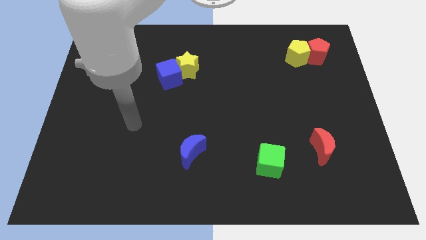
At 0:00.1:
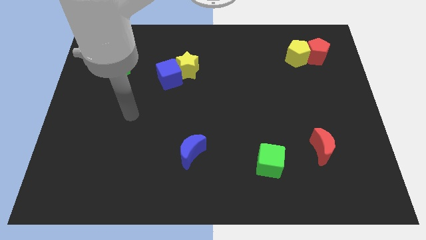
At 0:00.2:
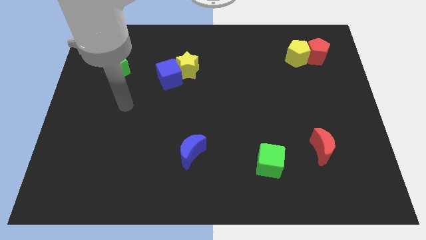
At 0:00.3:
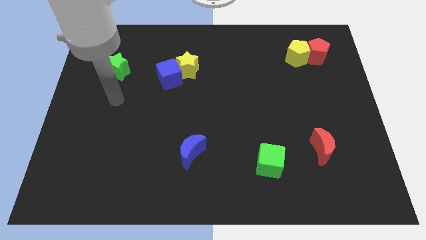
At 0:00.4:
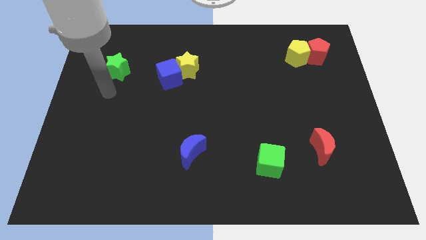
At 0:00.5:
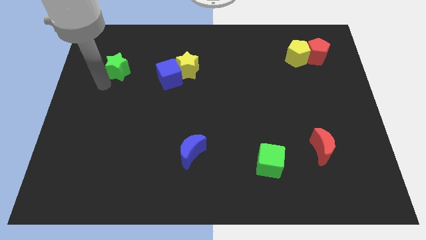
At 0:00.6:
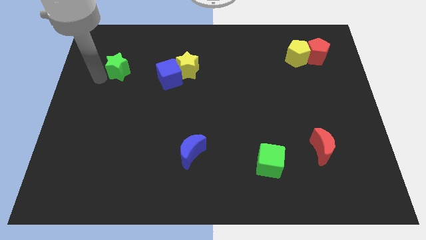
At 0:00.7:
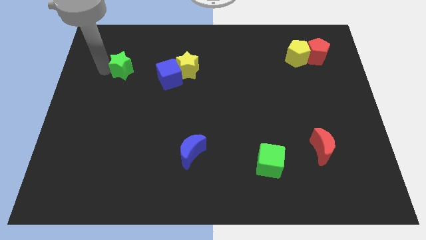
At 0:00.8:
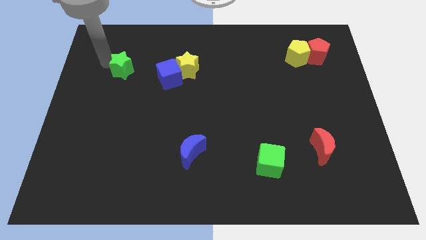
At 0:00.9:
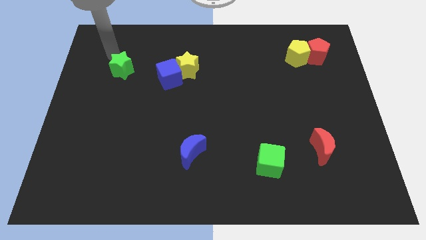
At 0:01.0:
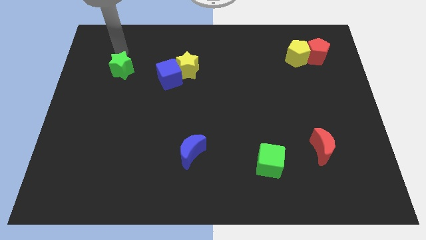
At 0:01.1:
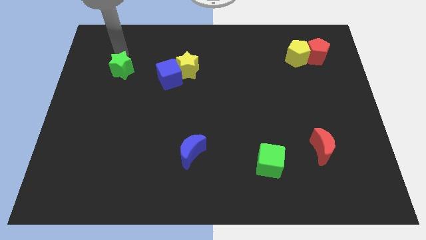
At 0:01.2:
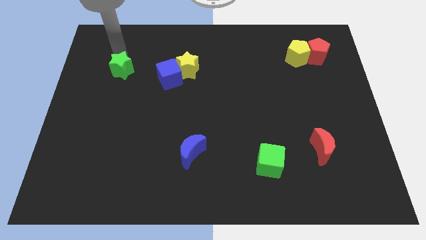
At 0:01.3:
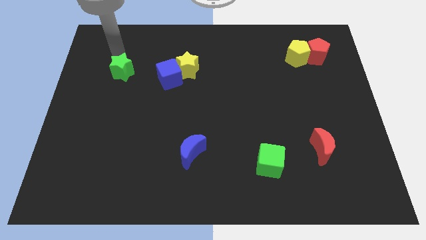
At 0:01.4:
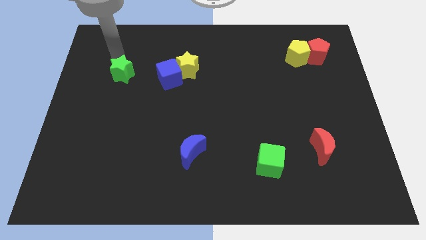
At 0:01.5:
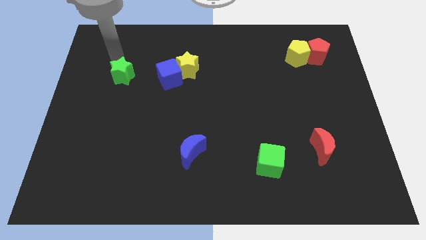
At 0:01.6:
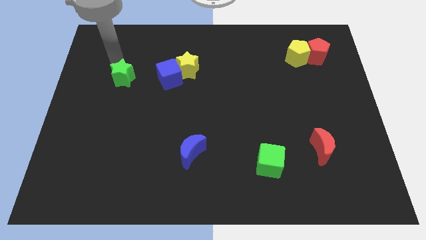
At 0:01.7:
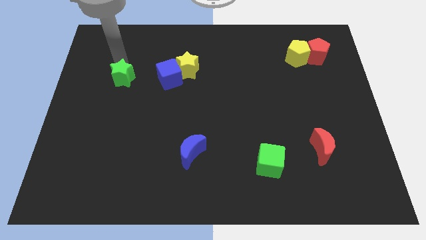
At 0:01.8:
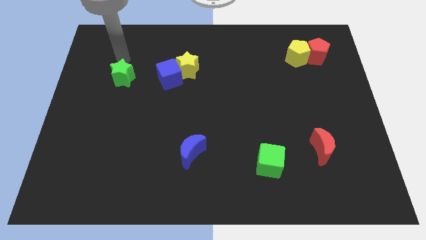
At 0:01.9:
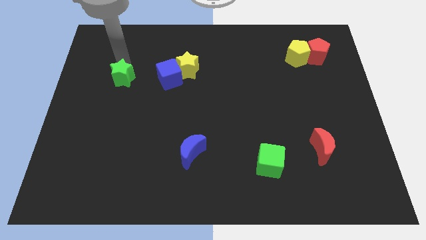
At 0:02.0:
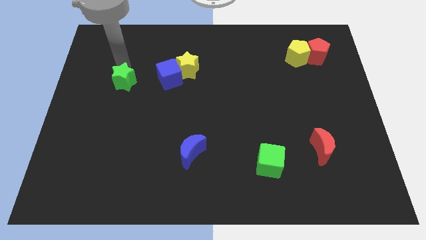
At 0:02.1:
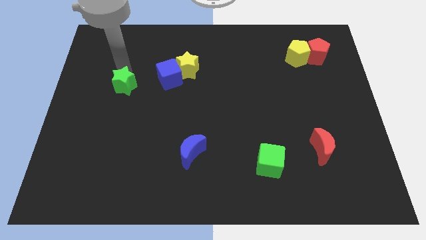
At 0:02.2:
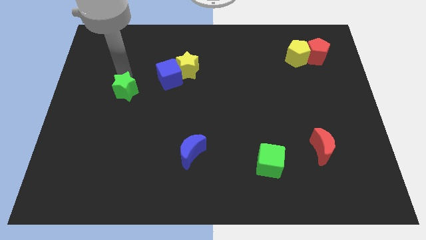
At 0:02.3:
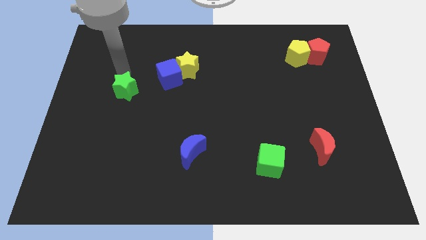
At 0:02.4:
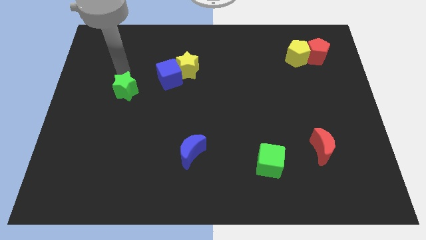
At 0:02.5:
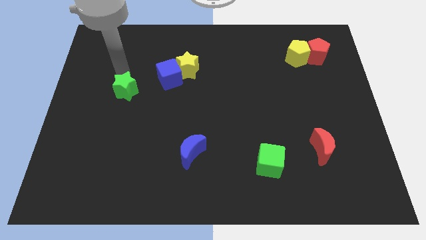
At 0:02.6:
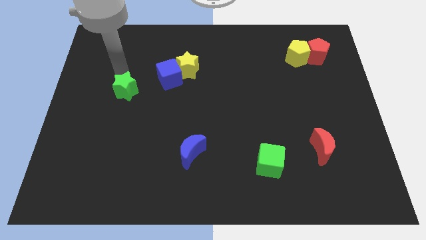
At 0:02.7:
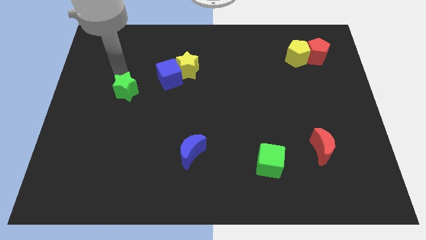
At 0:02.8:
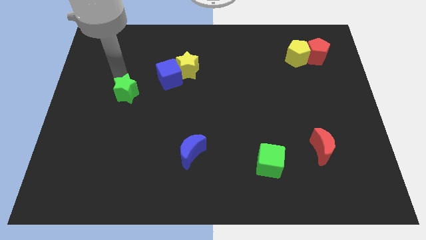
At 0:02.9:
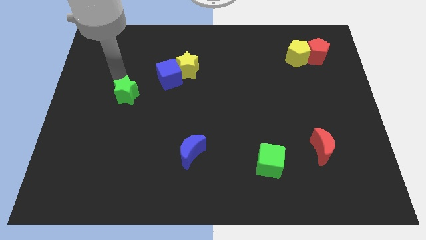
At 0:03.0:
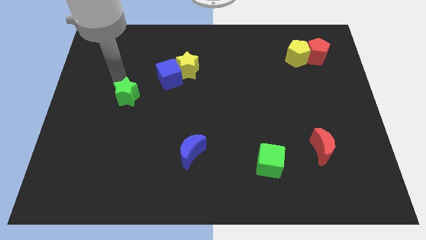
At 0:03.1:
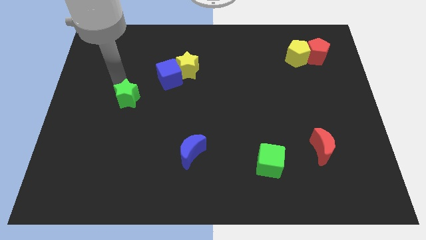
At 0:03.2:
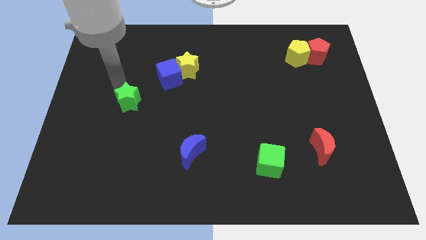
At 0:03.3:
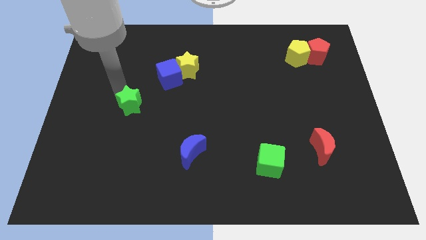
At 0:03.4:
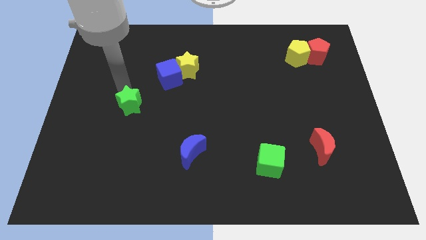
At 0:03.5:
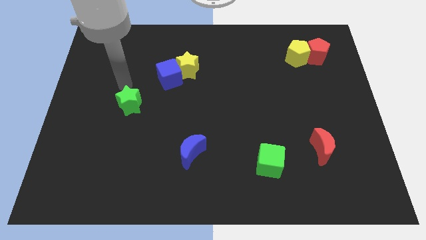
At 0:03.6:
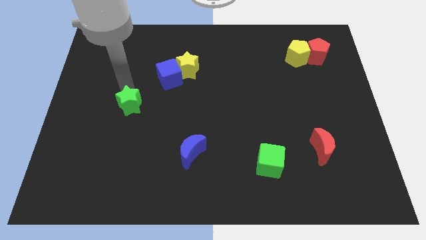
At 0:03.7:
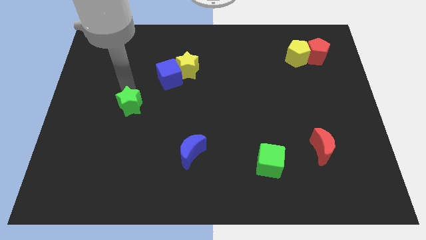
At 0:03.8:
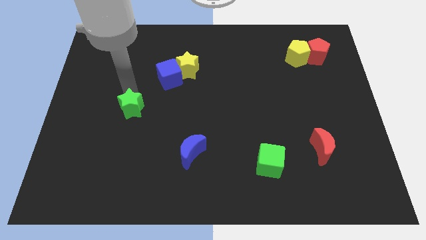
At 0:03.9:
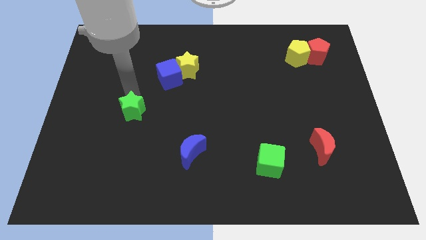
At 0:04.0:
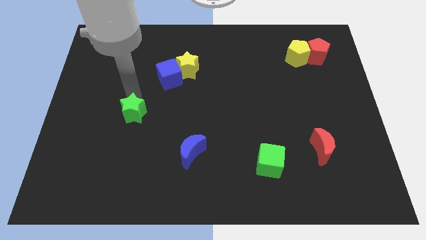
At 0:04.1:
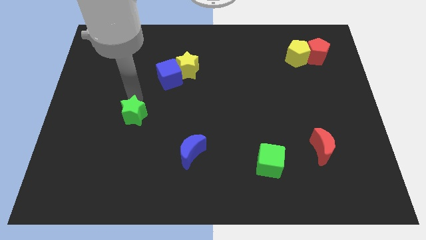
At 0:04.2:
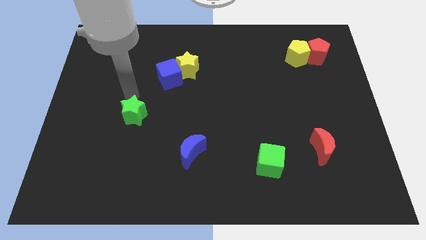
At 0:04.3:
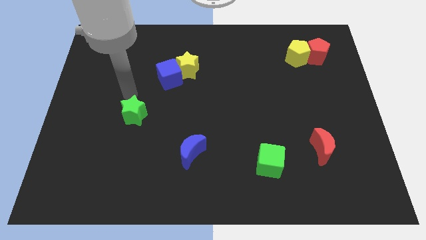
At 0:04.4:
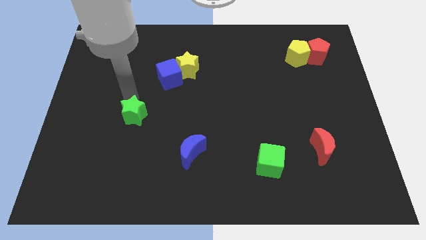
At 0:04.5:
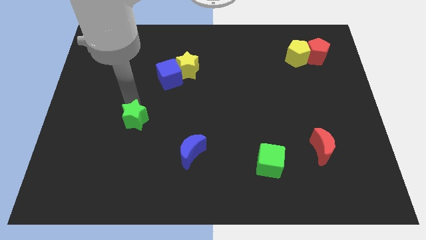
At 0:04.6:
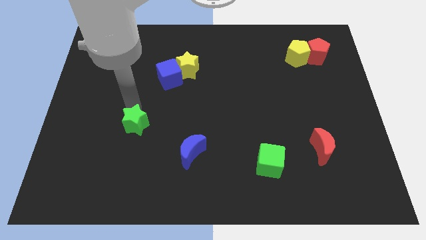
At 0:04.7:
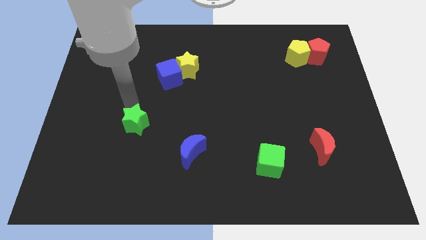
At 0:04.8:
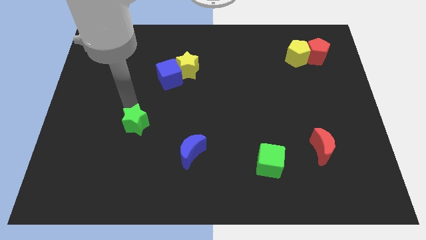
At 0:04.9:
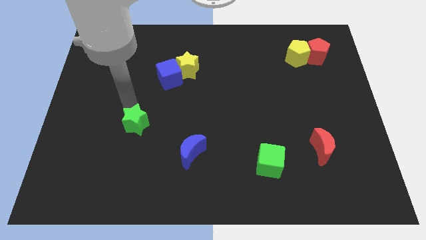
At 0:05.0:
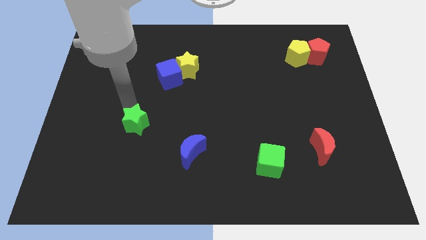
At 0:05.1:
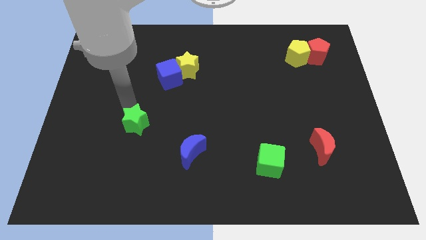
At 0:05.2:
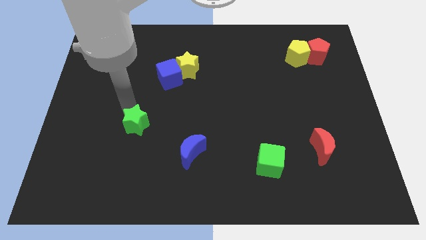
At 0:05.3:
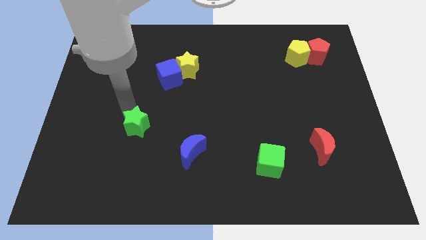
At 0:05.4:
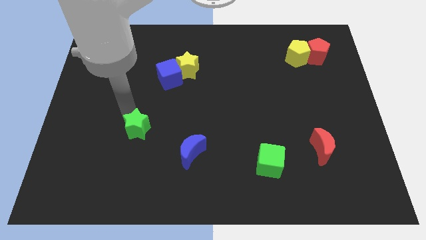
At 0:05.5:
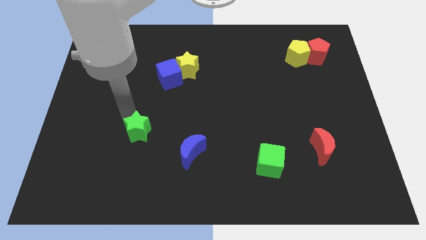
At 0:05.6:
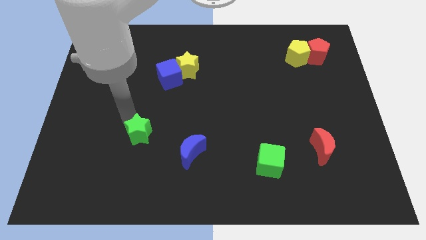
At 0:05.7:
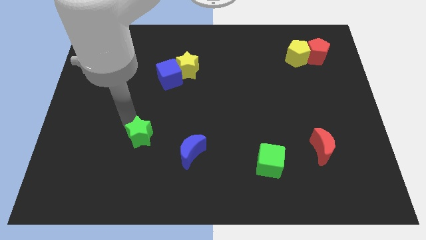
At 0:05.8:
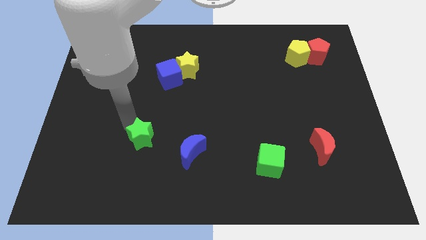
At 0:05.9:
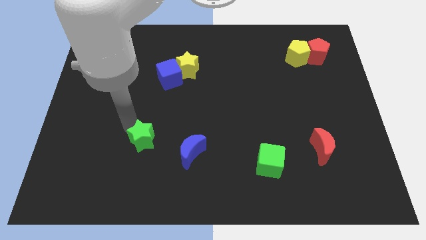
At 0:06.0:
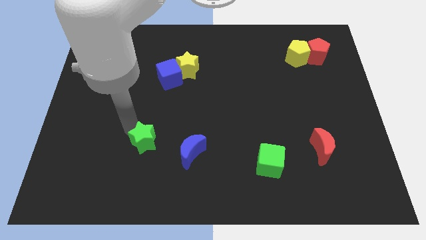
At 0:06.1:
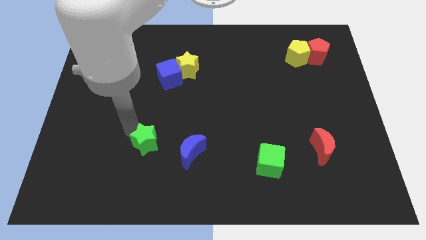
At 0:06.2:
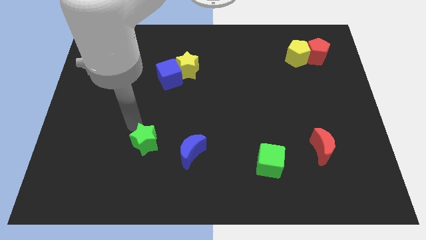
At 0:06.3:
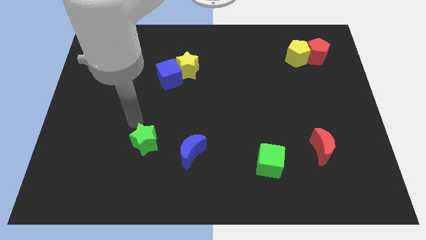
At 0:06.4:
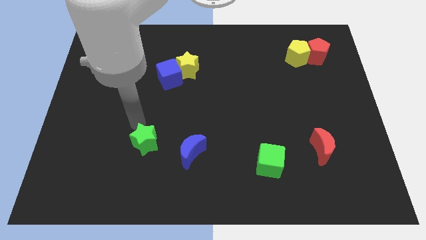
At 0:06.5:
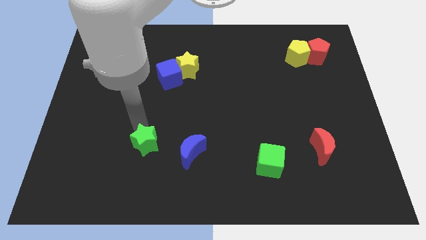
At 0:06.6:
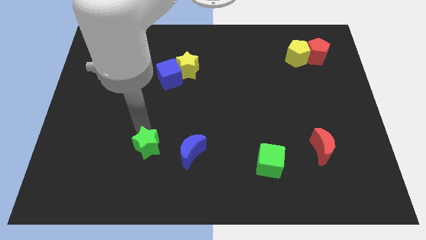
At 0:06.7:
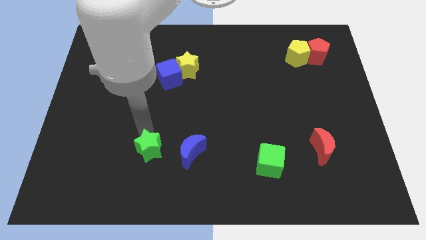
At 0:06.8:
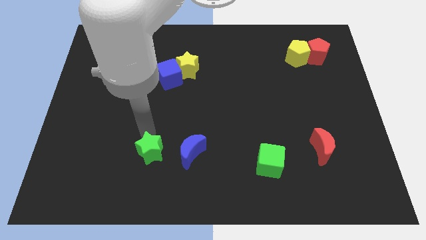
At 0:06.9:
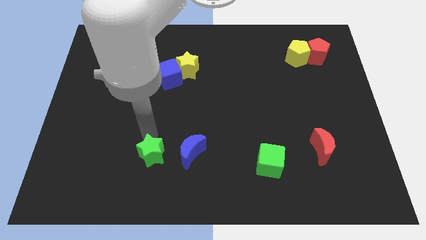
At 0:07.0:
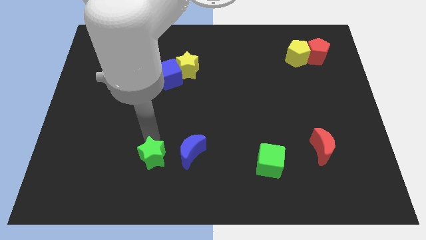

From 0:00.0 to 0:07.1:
slide the green star diagonally down and to the left of the blue moon
